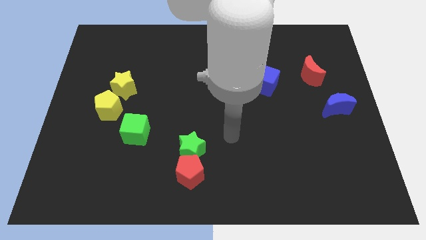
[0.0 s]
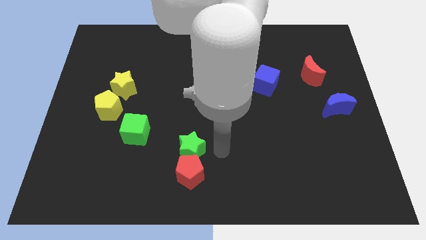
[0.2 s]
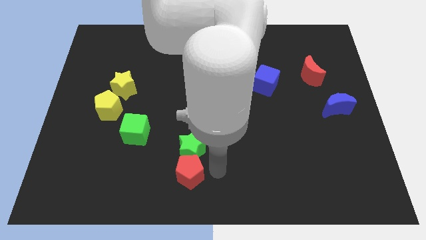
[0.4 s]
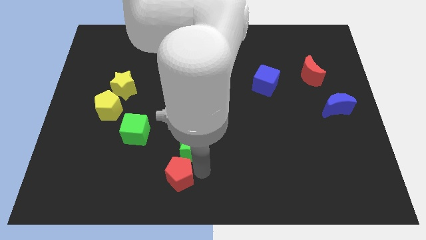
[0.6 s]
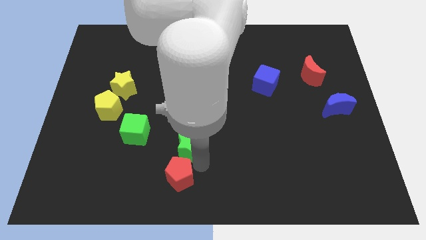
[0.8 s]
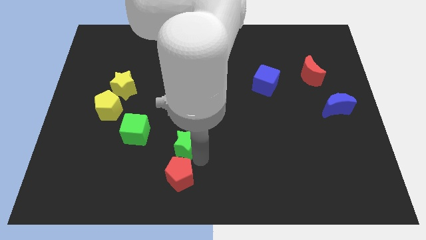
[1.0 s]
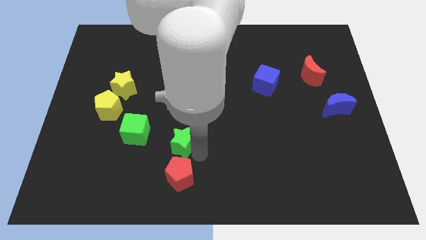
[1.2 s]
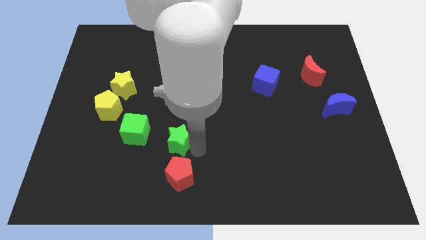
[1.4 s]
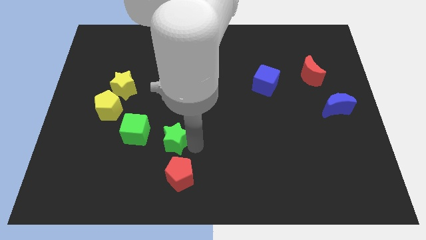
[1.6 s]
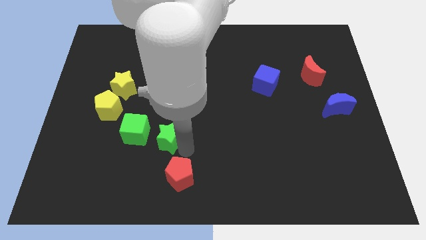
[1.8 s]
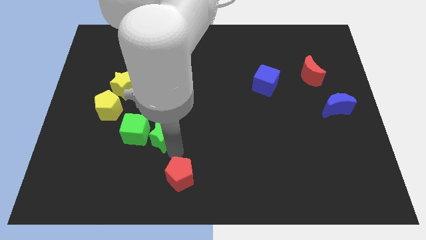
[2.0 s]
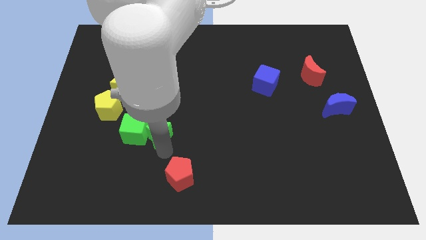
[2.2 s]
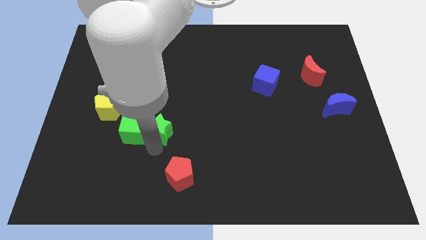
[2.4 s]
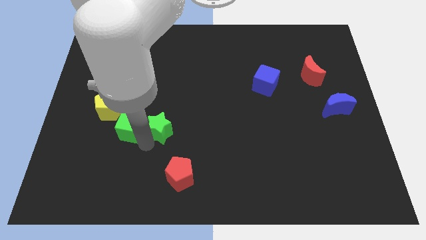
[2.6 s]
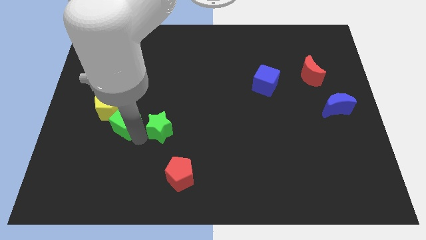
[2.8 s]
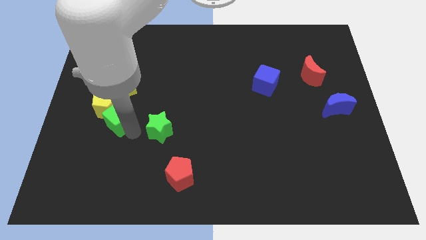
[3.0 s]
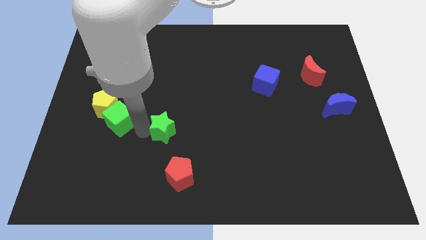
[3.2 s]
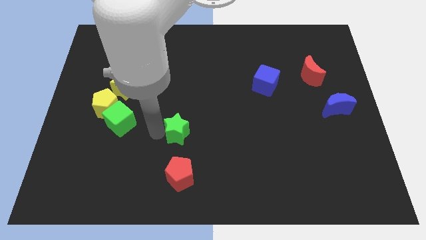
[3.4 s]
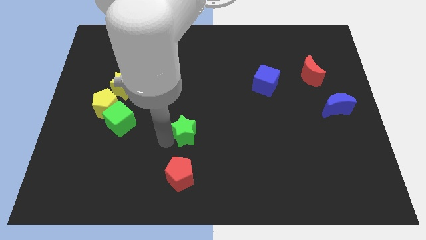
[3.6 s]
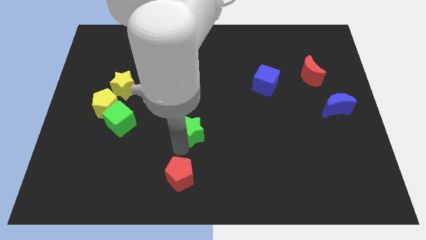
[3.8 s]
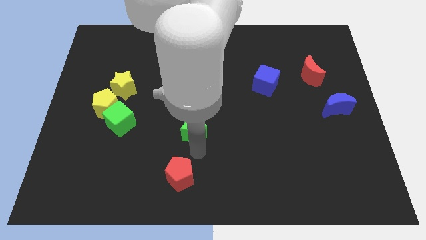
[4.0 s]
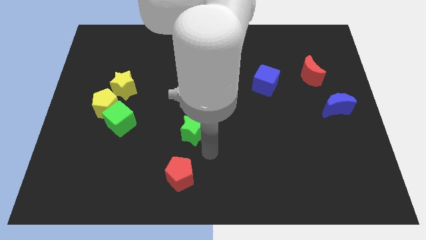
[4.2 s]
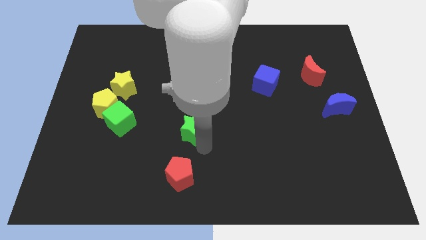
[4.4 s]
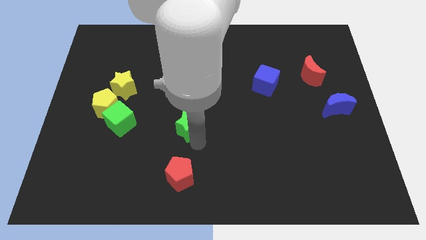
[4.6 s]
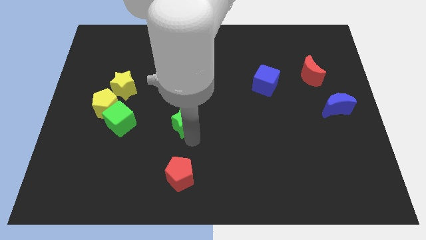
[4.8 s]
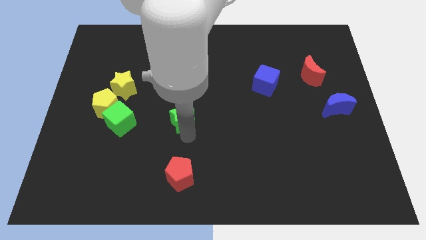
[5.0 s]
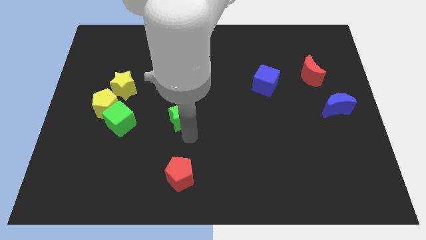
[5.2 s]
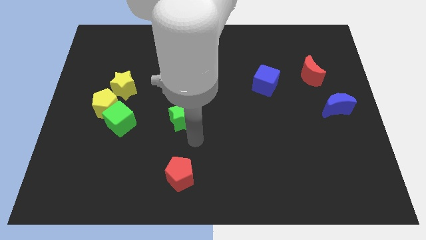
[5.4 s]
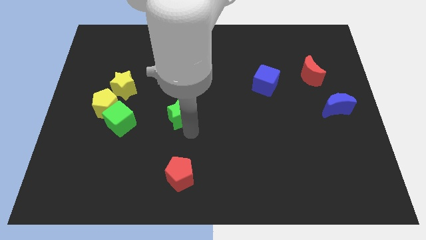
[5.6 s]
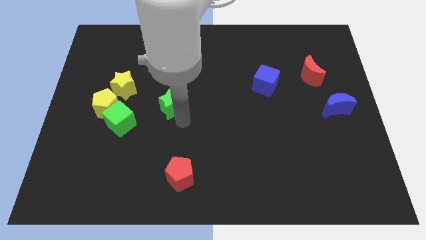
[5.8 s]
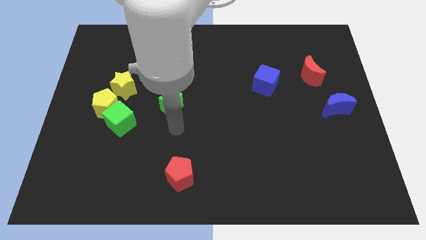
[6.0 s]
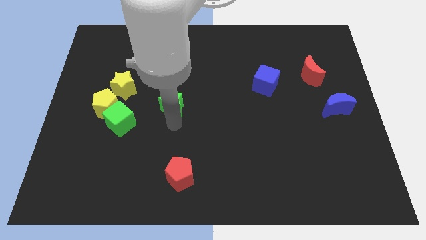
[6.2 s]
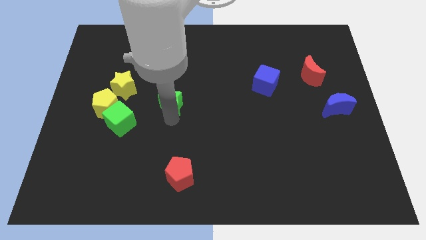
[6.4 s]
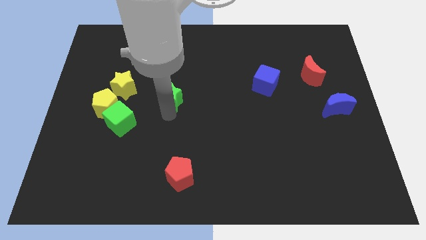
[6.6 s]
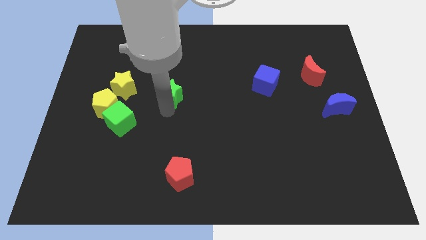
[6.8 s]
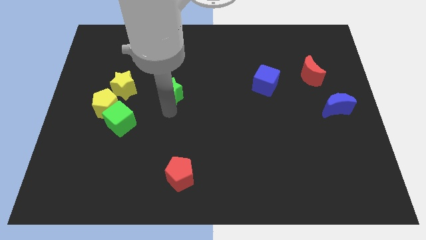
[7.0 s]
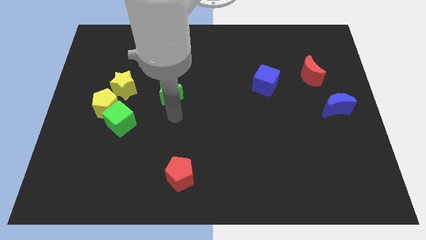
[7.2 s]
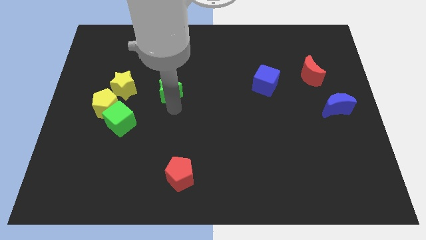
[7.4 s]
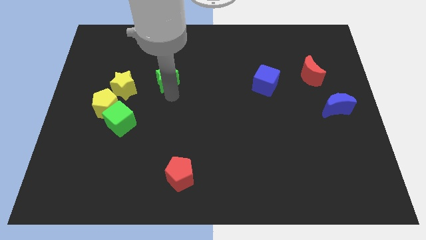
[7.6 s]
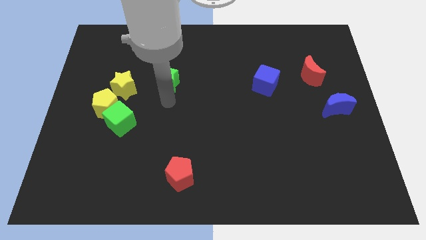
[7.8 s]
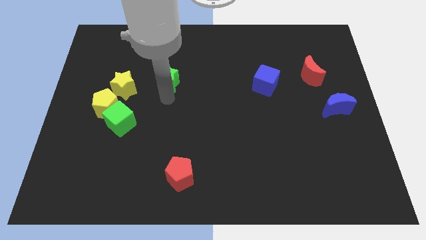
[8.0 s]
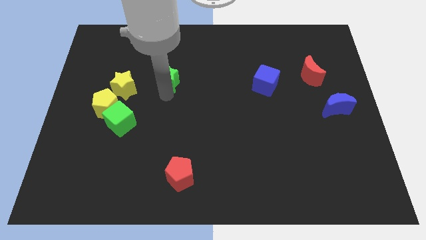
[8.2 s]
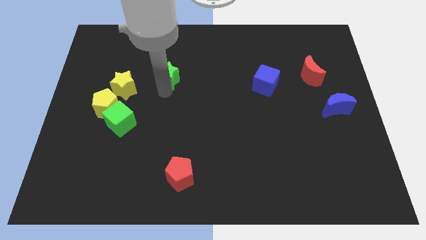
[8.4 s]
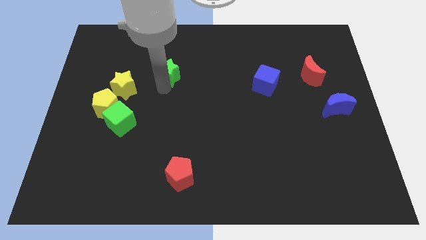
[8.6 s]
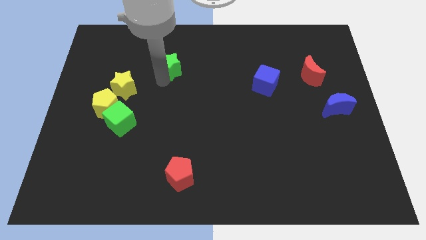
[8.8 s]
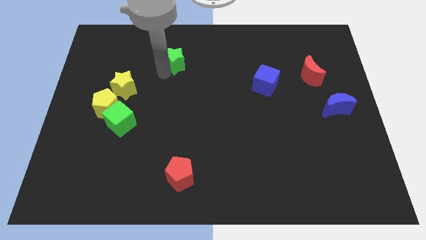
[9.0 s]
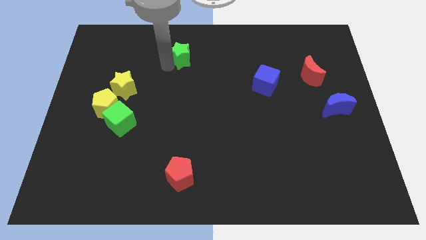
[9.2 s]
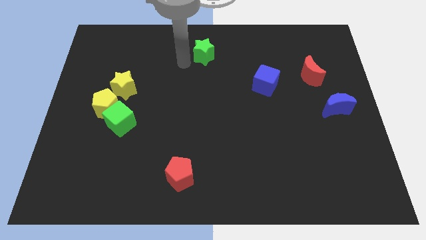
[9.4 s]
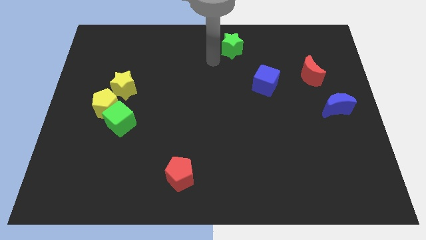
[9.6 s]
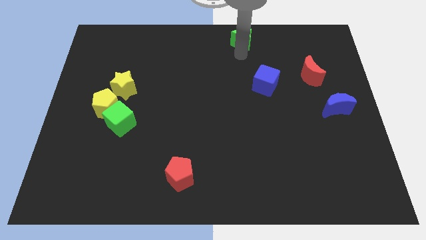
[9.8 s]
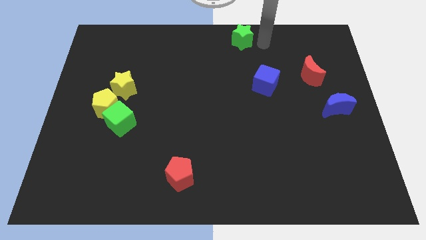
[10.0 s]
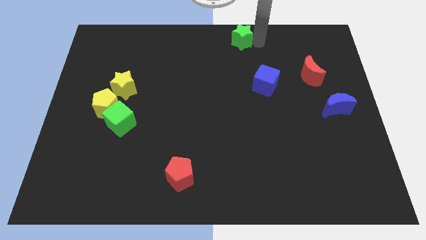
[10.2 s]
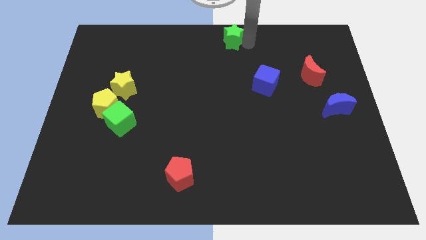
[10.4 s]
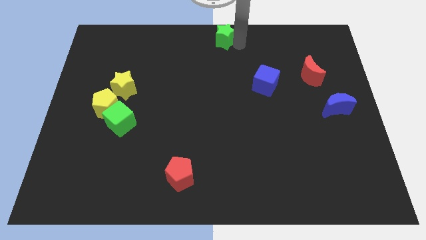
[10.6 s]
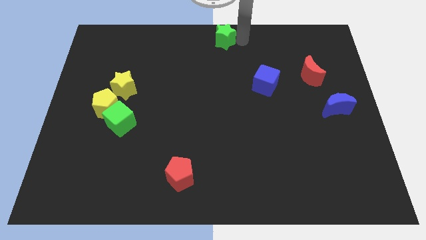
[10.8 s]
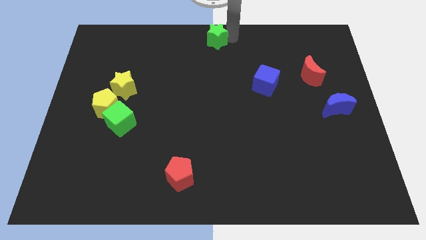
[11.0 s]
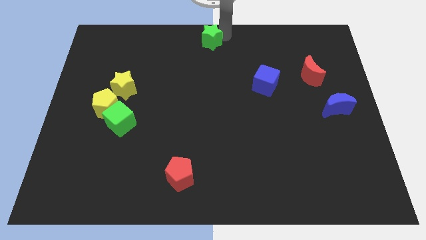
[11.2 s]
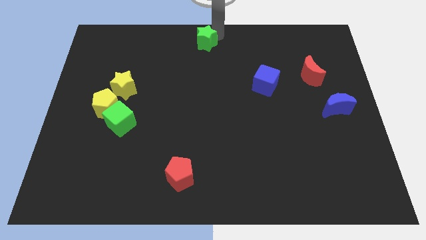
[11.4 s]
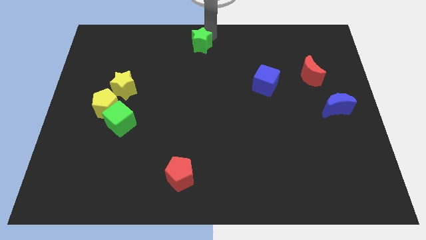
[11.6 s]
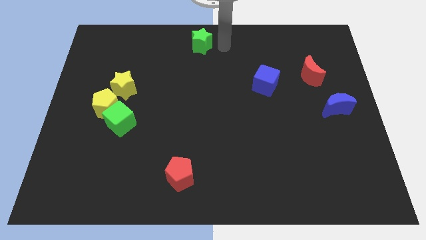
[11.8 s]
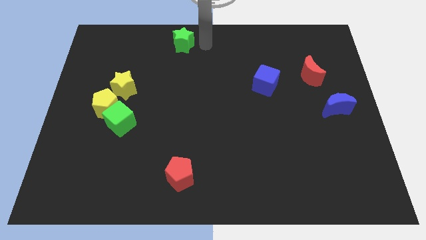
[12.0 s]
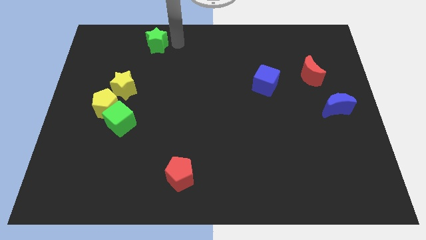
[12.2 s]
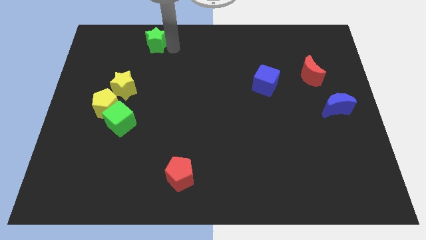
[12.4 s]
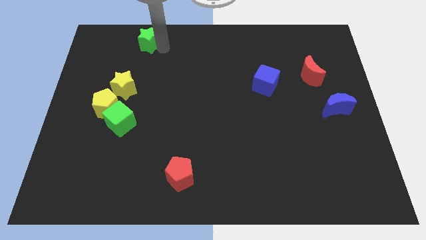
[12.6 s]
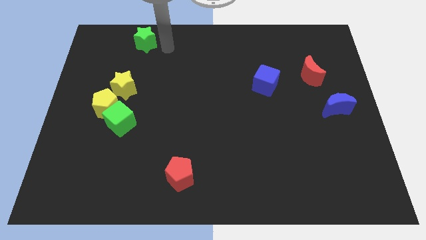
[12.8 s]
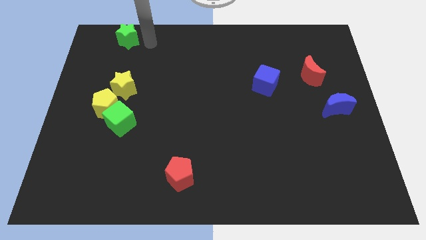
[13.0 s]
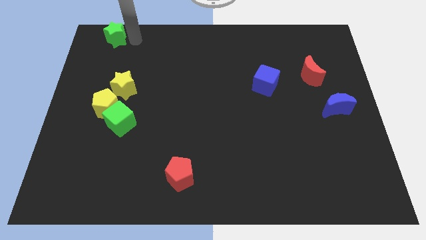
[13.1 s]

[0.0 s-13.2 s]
push the green star to the top left corner
